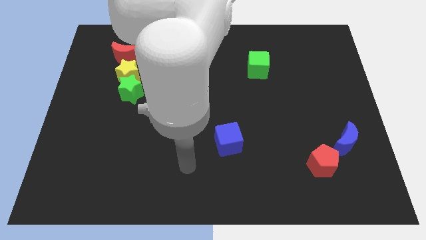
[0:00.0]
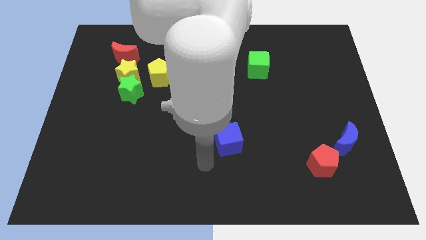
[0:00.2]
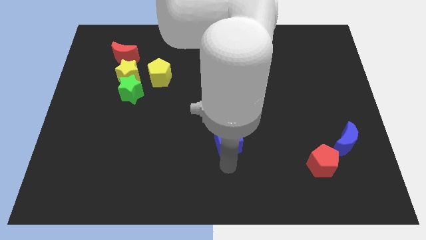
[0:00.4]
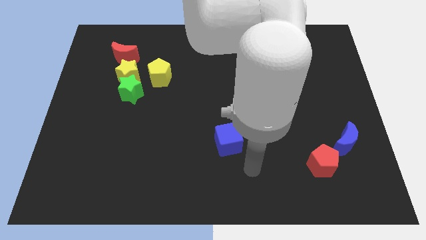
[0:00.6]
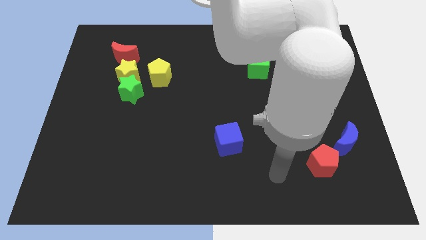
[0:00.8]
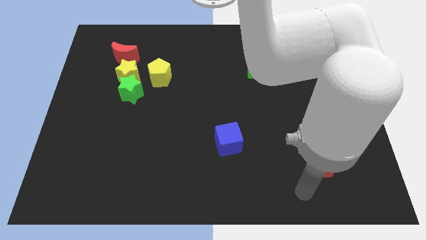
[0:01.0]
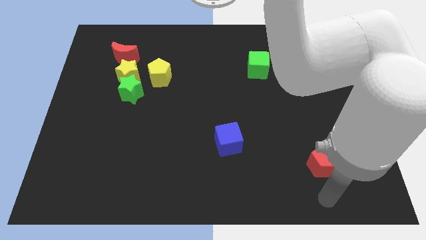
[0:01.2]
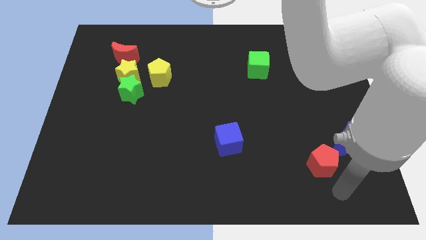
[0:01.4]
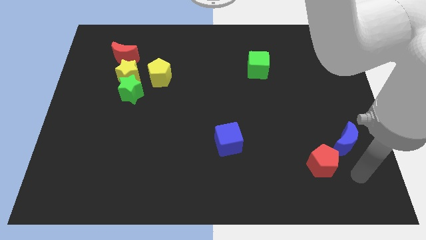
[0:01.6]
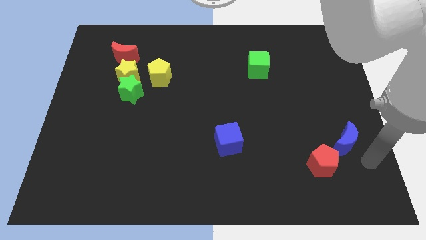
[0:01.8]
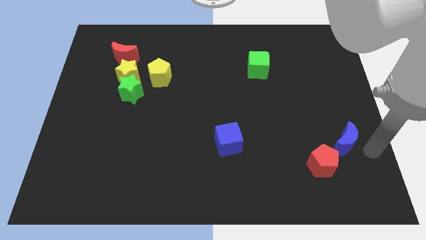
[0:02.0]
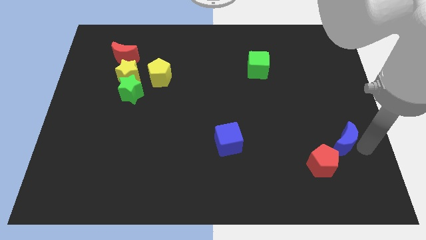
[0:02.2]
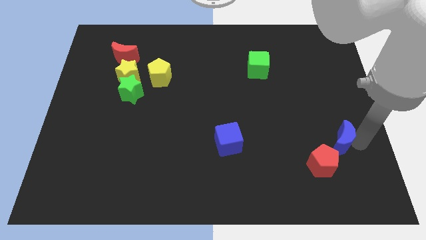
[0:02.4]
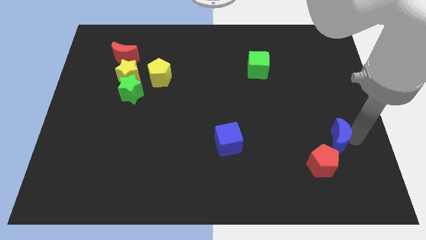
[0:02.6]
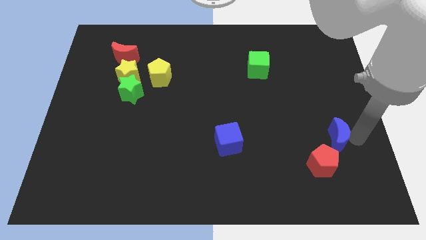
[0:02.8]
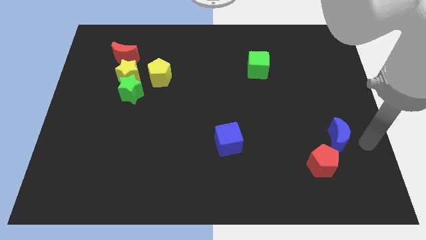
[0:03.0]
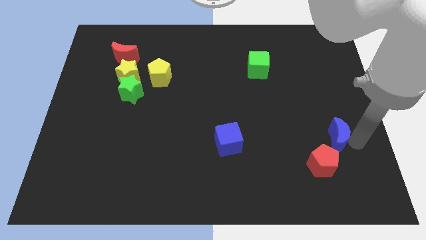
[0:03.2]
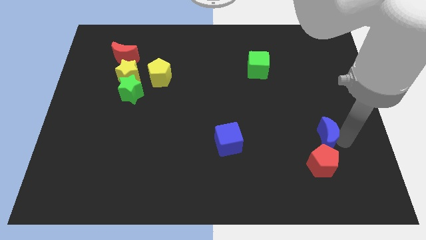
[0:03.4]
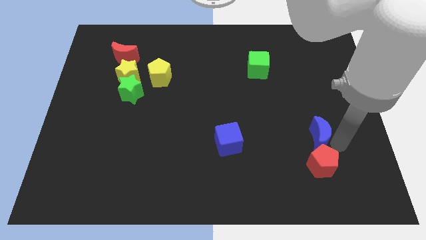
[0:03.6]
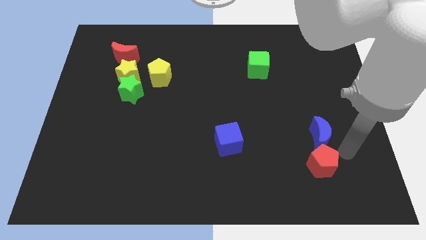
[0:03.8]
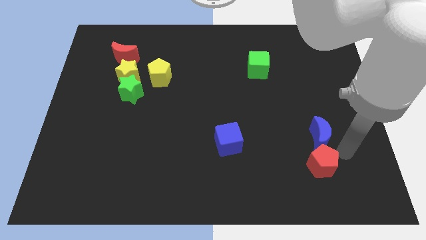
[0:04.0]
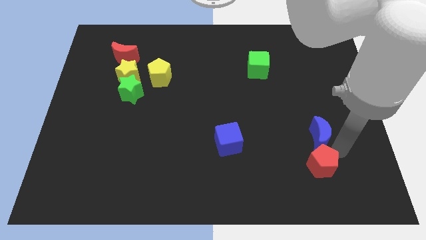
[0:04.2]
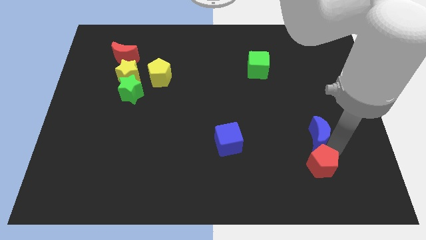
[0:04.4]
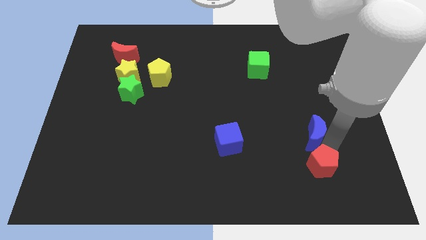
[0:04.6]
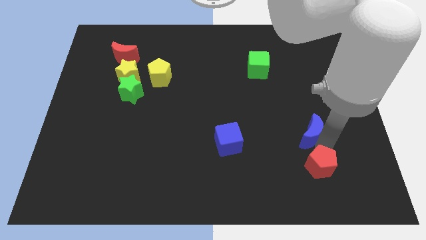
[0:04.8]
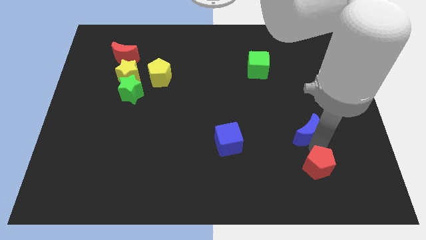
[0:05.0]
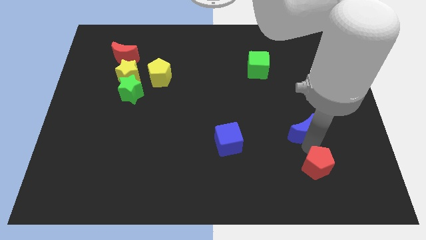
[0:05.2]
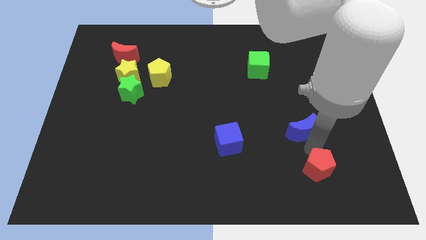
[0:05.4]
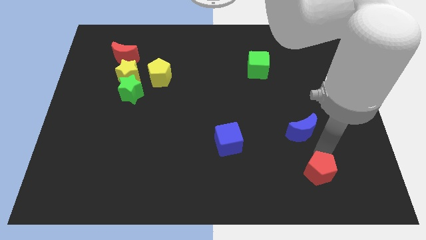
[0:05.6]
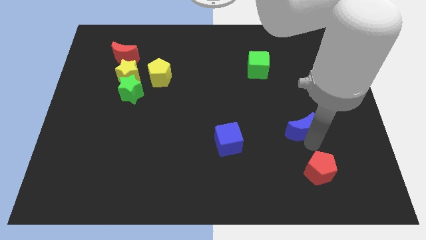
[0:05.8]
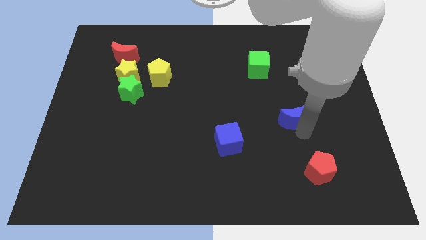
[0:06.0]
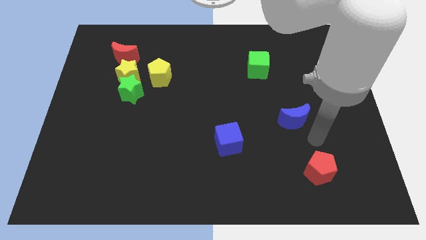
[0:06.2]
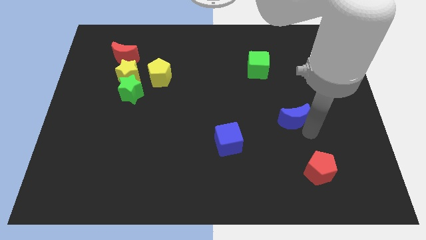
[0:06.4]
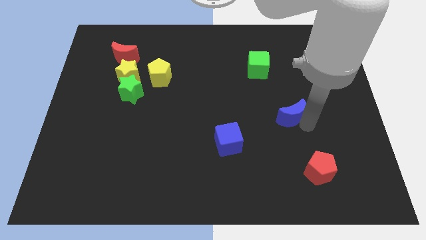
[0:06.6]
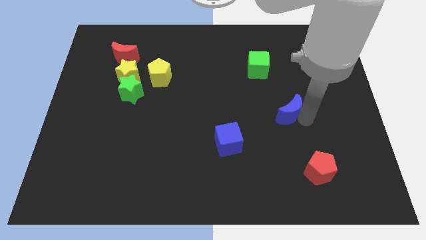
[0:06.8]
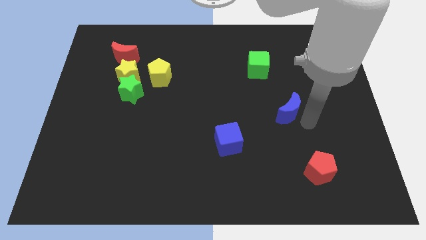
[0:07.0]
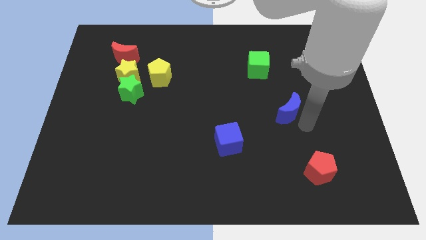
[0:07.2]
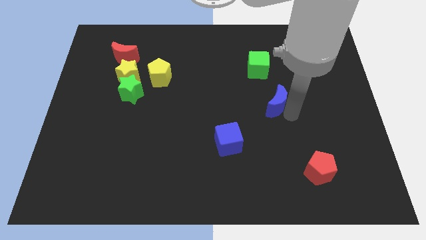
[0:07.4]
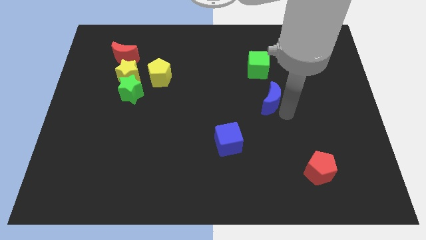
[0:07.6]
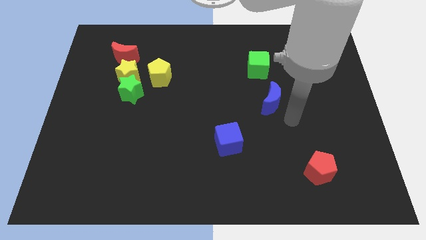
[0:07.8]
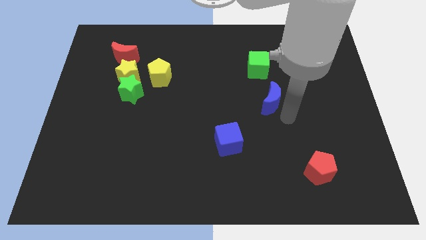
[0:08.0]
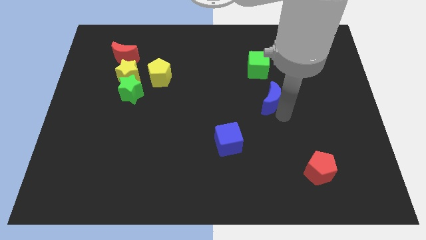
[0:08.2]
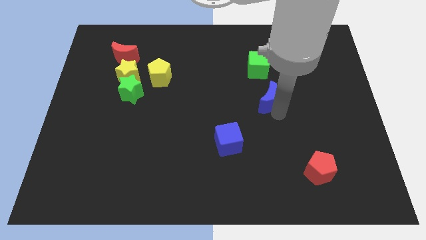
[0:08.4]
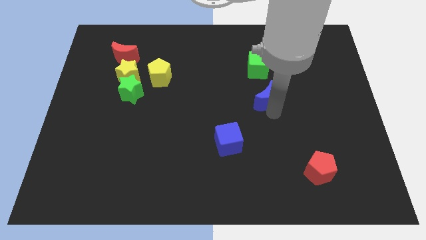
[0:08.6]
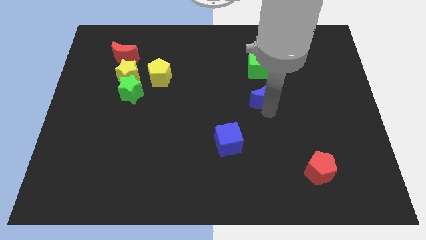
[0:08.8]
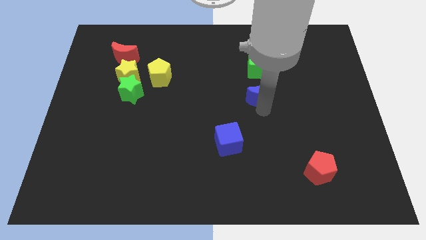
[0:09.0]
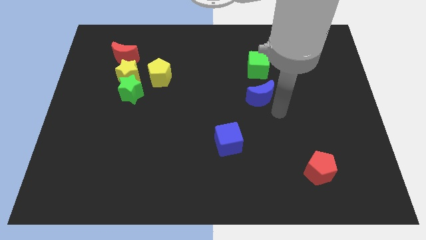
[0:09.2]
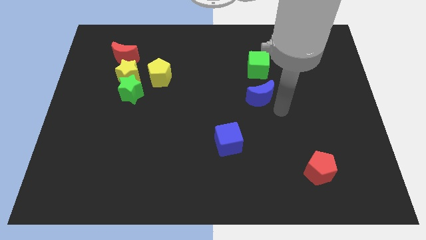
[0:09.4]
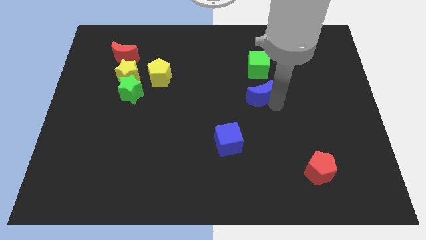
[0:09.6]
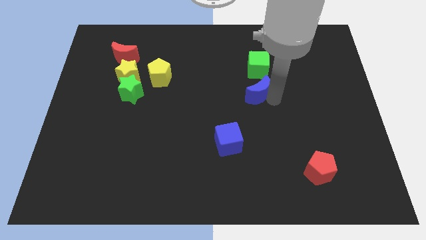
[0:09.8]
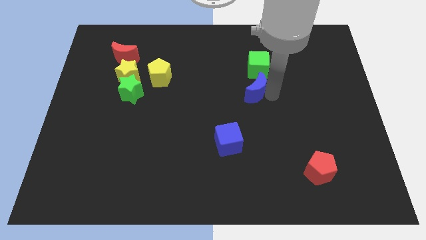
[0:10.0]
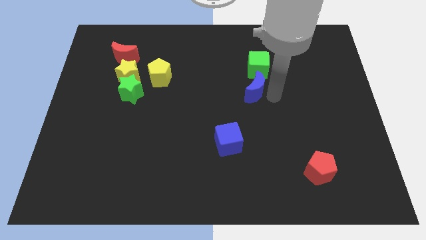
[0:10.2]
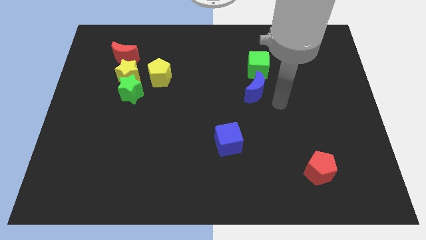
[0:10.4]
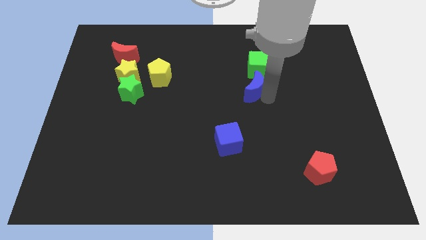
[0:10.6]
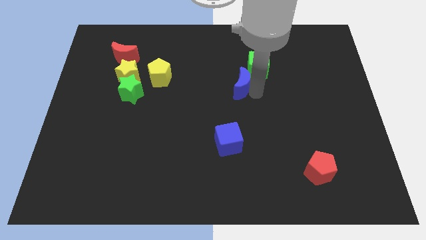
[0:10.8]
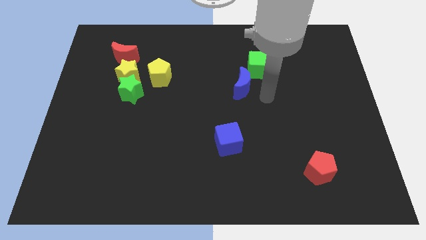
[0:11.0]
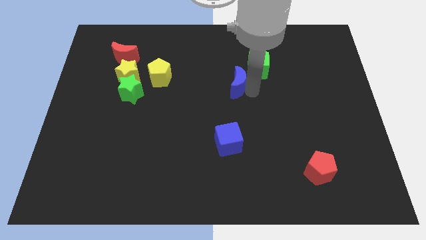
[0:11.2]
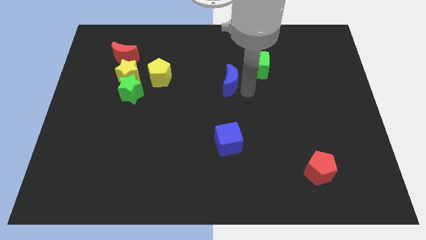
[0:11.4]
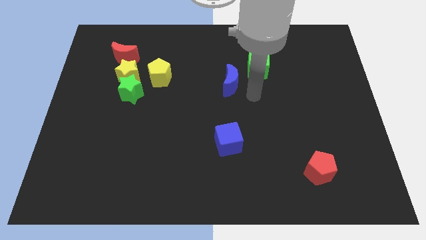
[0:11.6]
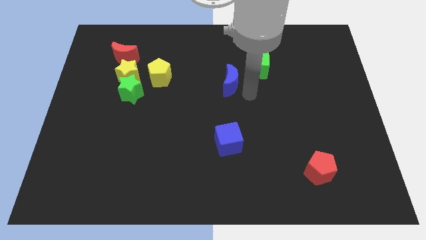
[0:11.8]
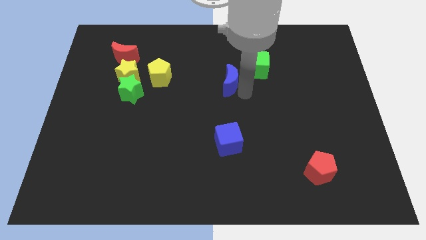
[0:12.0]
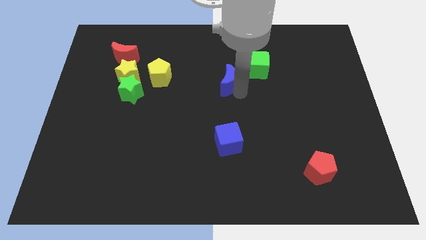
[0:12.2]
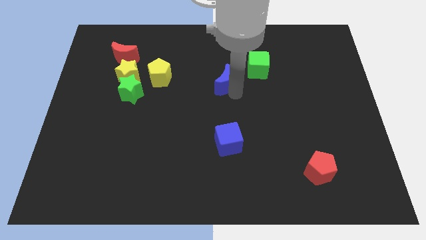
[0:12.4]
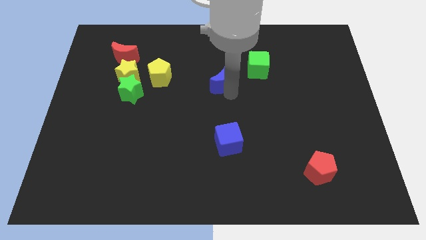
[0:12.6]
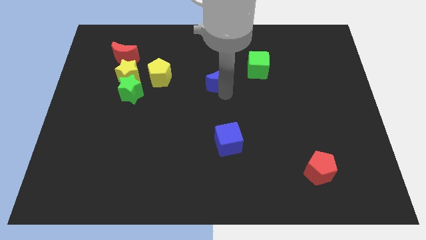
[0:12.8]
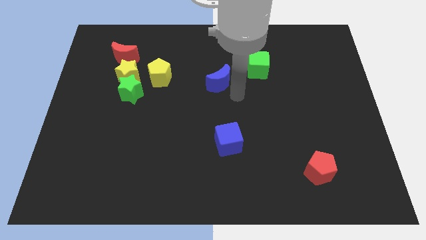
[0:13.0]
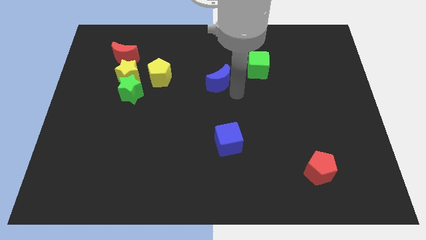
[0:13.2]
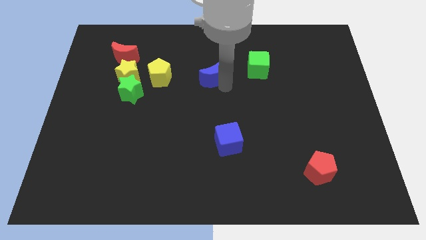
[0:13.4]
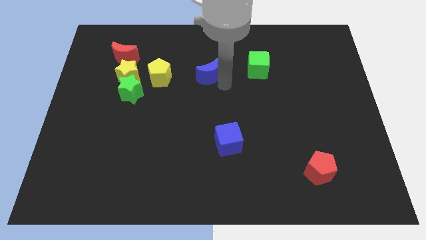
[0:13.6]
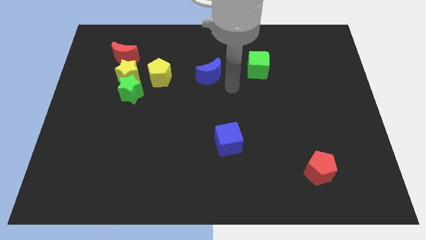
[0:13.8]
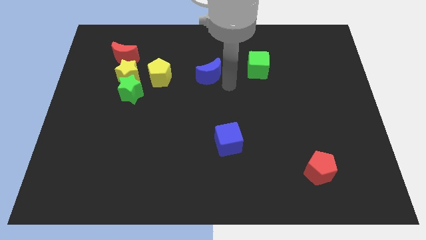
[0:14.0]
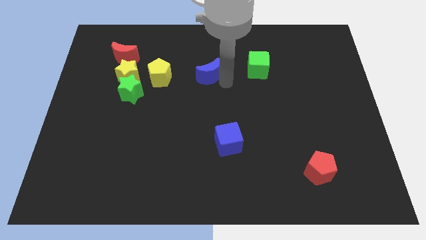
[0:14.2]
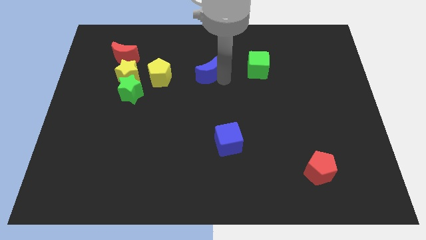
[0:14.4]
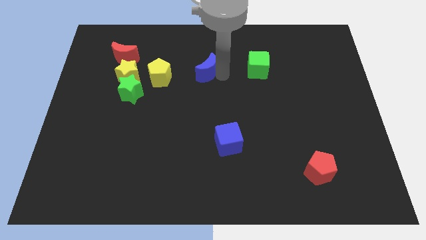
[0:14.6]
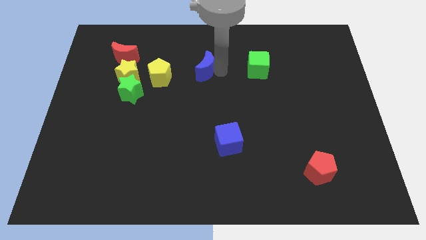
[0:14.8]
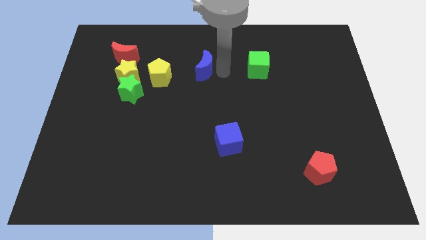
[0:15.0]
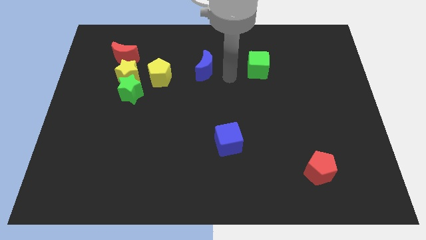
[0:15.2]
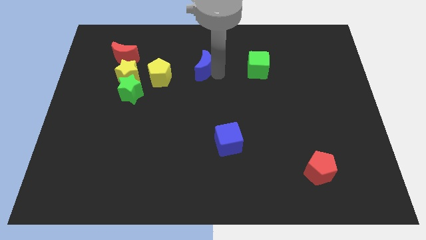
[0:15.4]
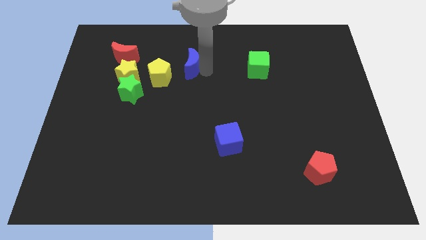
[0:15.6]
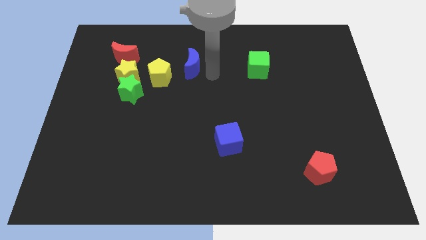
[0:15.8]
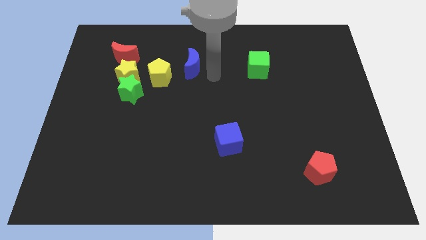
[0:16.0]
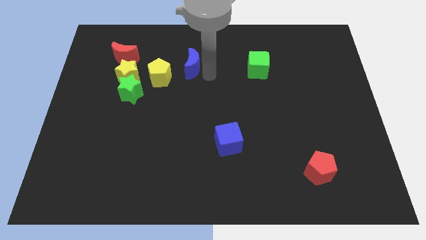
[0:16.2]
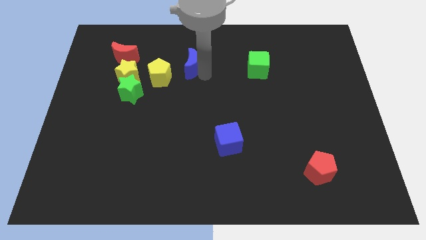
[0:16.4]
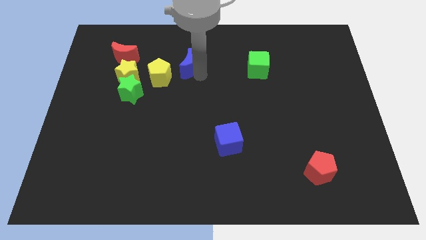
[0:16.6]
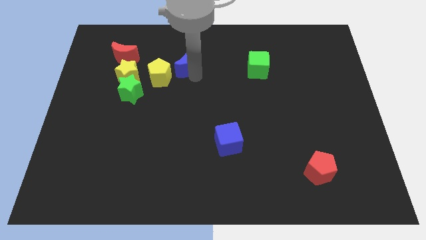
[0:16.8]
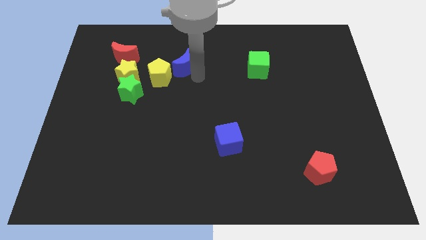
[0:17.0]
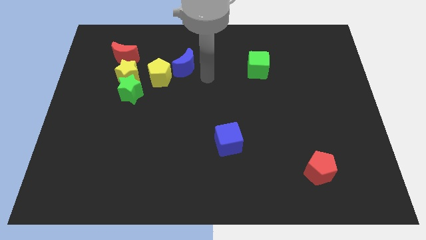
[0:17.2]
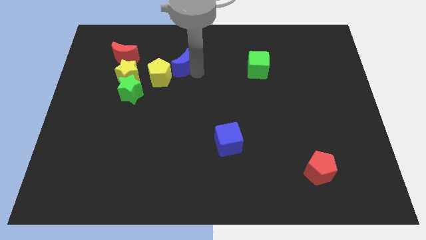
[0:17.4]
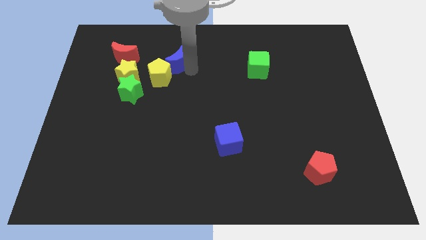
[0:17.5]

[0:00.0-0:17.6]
move the blue moon just right of the red moon
